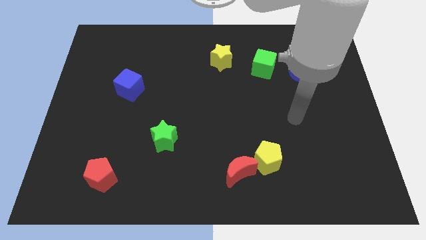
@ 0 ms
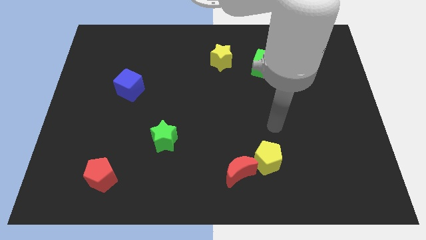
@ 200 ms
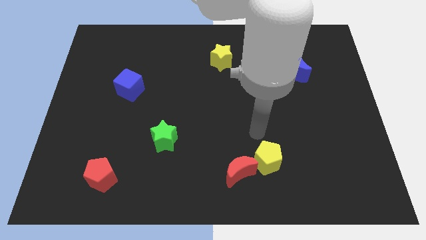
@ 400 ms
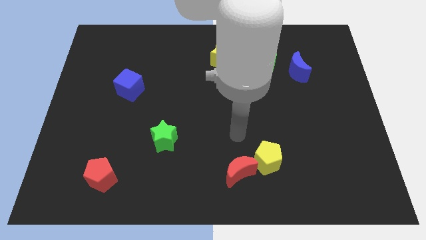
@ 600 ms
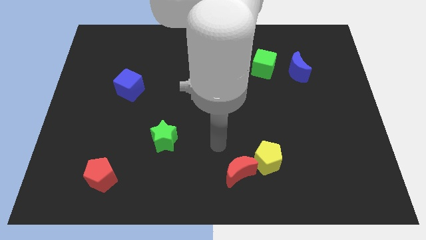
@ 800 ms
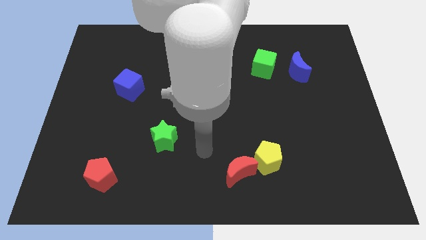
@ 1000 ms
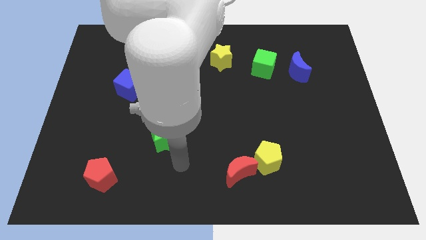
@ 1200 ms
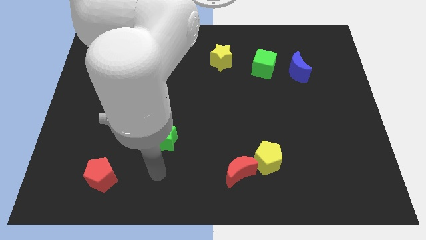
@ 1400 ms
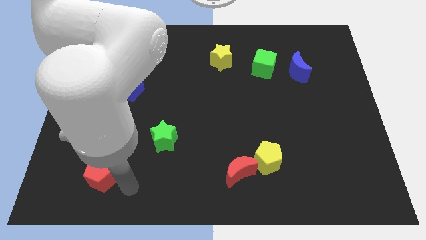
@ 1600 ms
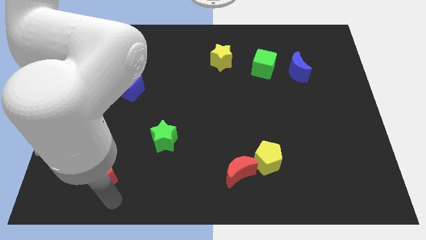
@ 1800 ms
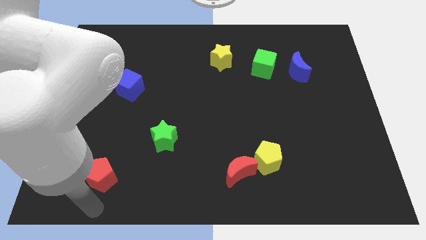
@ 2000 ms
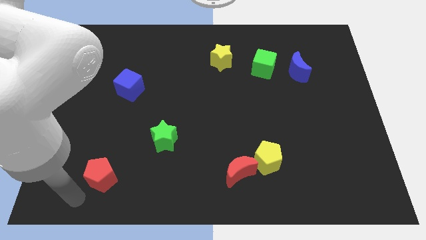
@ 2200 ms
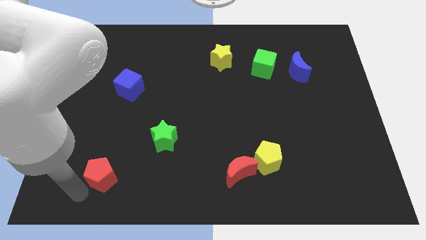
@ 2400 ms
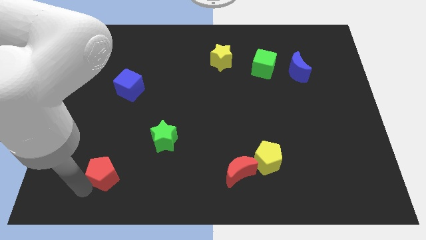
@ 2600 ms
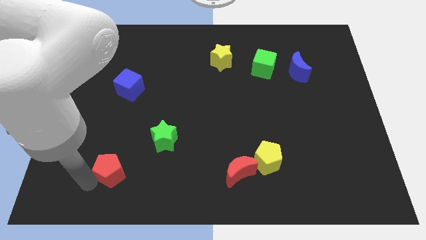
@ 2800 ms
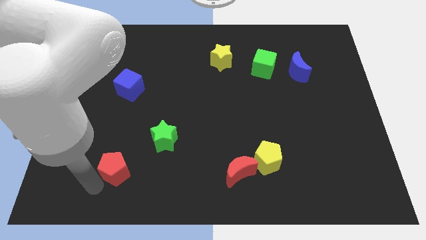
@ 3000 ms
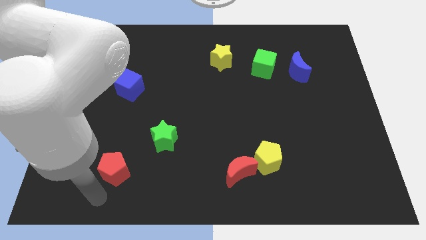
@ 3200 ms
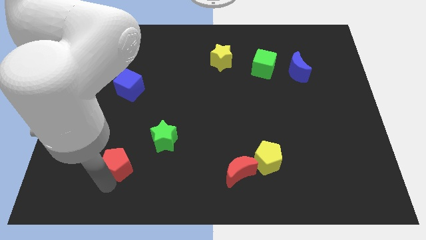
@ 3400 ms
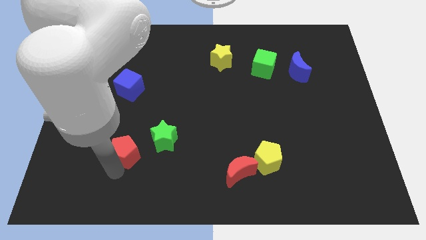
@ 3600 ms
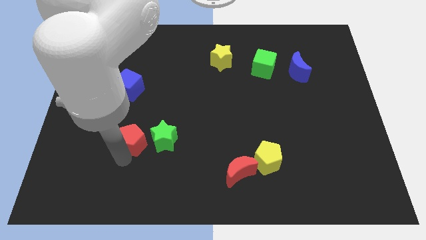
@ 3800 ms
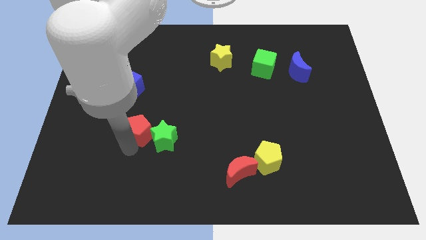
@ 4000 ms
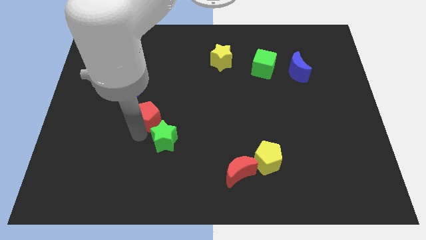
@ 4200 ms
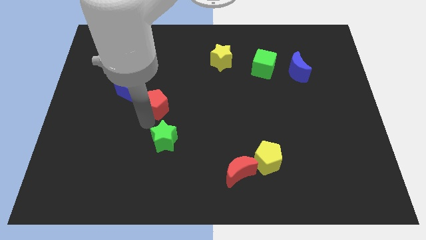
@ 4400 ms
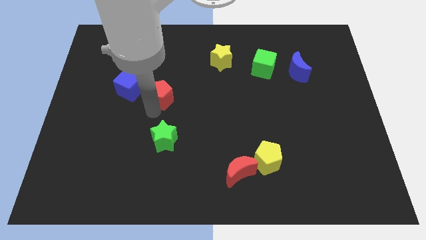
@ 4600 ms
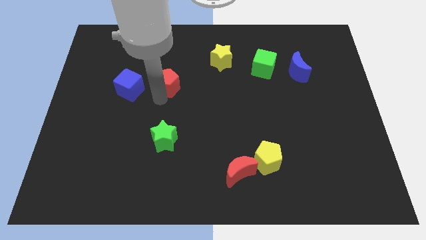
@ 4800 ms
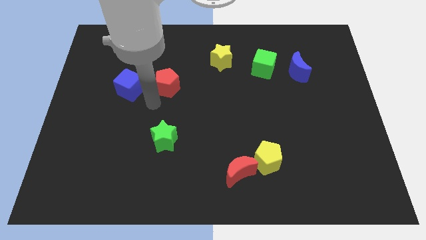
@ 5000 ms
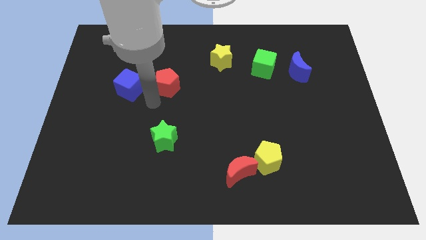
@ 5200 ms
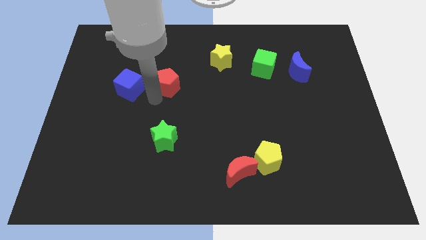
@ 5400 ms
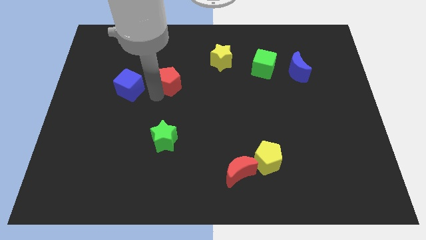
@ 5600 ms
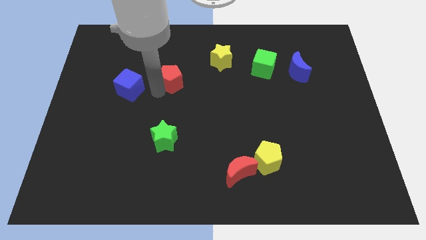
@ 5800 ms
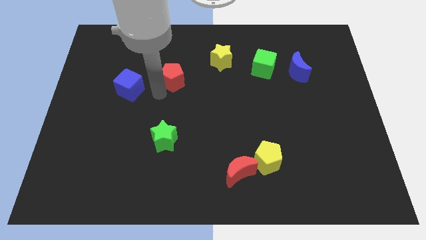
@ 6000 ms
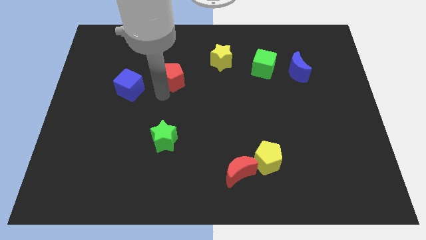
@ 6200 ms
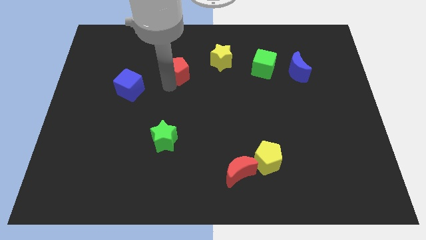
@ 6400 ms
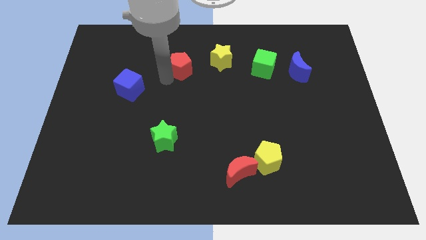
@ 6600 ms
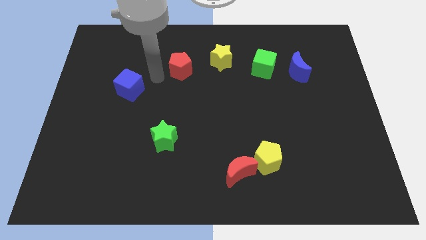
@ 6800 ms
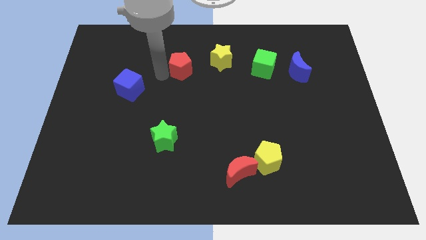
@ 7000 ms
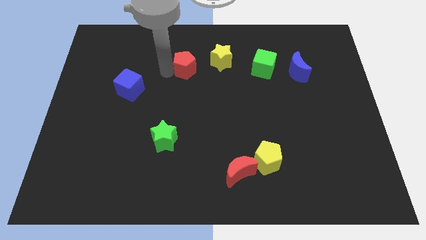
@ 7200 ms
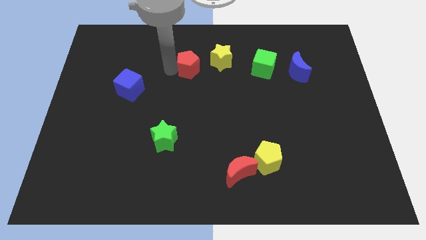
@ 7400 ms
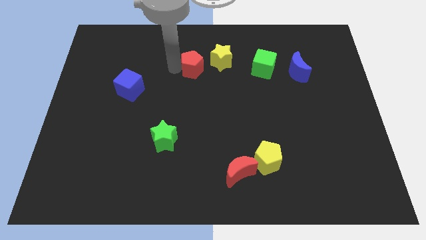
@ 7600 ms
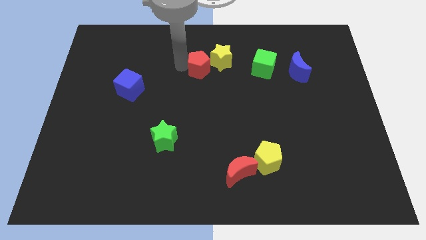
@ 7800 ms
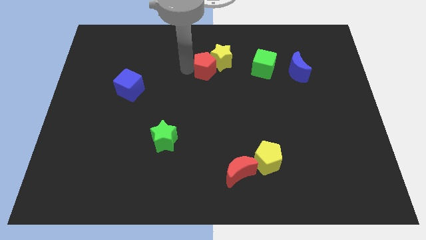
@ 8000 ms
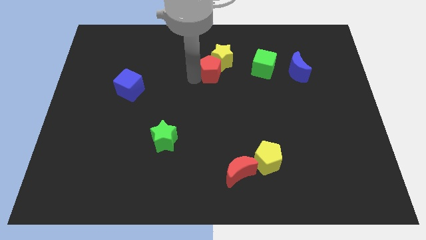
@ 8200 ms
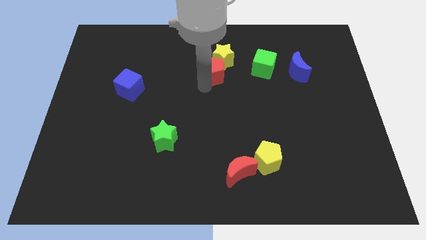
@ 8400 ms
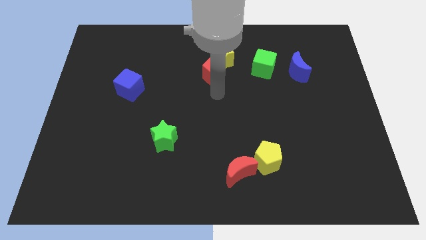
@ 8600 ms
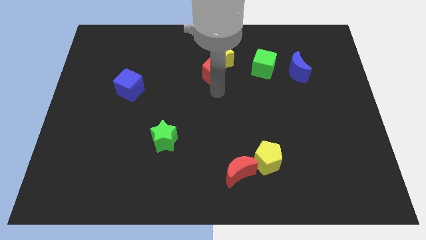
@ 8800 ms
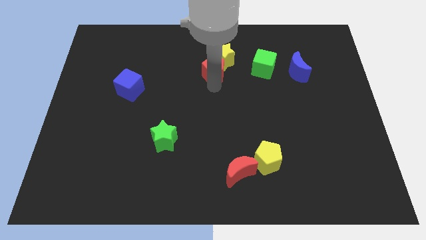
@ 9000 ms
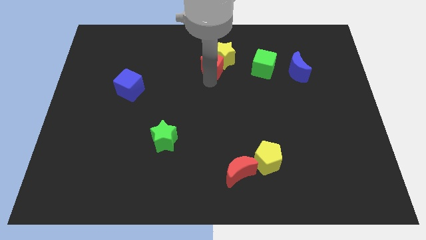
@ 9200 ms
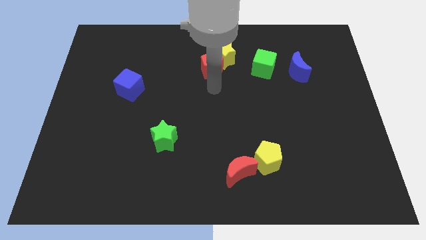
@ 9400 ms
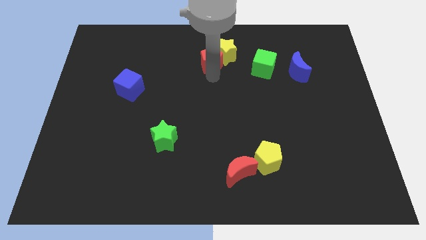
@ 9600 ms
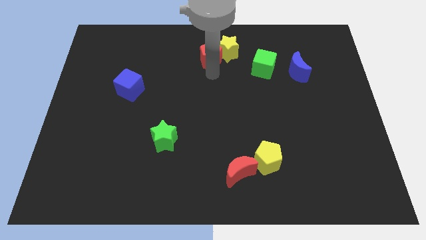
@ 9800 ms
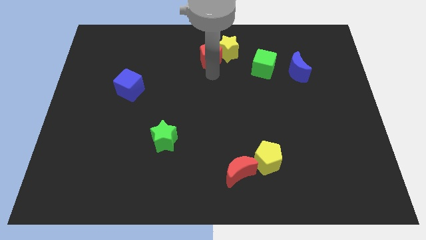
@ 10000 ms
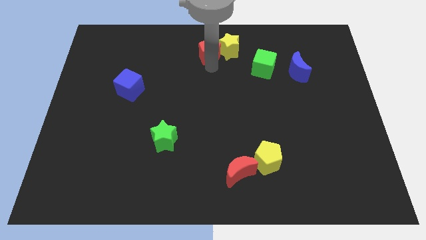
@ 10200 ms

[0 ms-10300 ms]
slide the red pentagon to the top

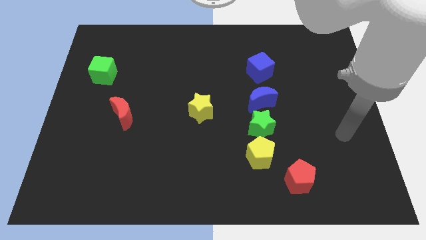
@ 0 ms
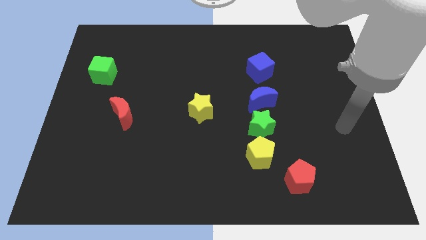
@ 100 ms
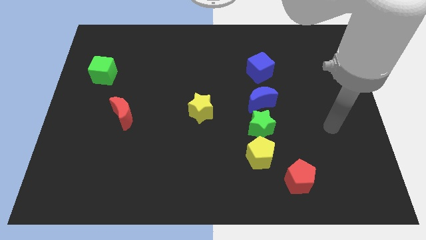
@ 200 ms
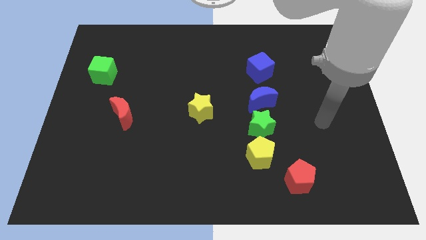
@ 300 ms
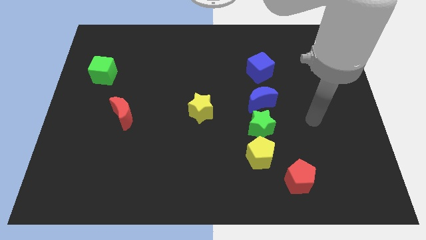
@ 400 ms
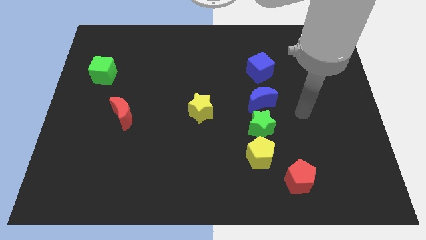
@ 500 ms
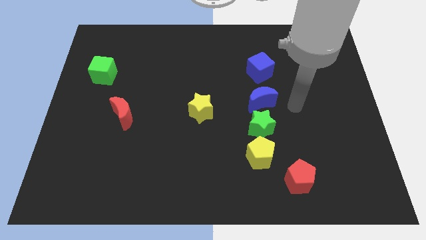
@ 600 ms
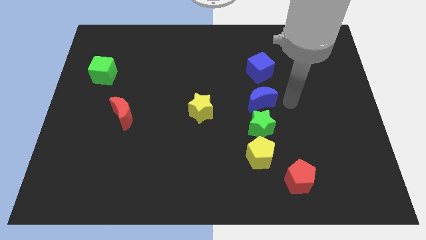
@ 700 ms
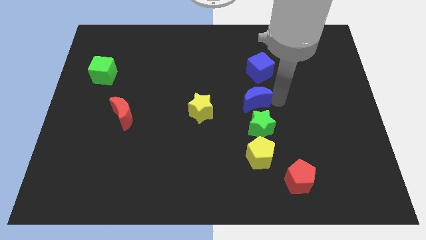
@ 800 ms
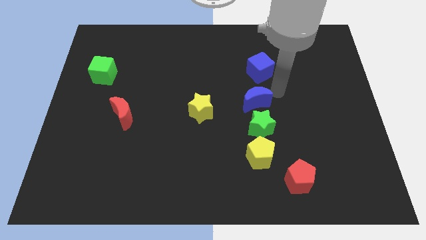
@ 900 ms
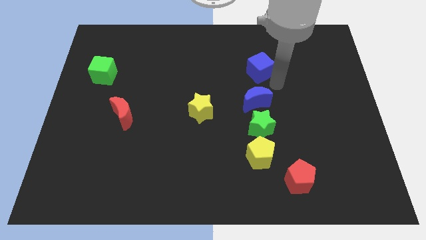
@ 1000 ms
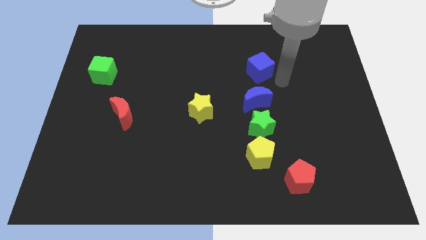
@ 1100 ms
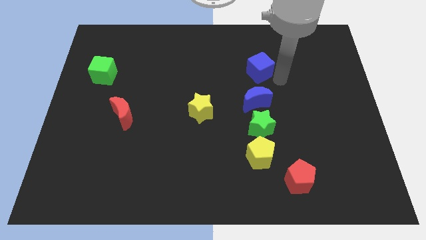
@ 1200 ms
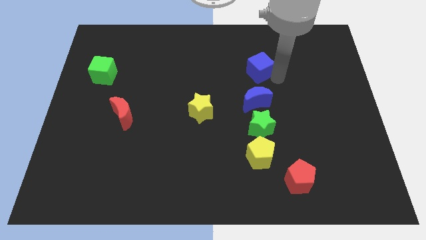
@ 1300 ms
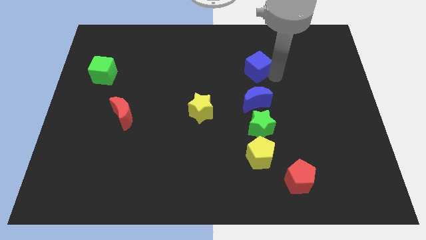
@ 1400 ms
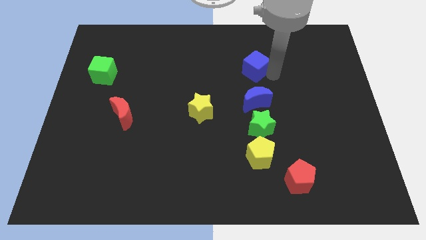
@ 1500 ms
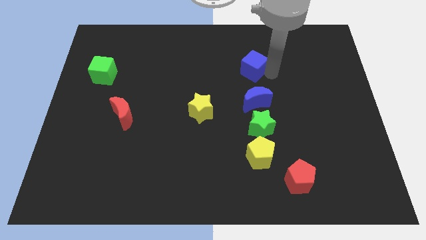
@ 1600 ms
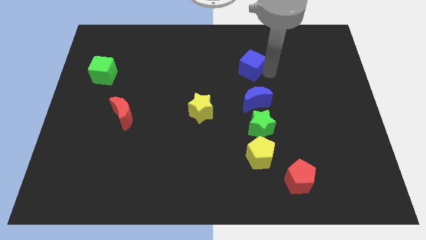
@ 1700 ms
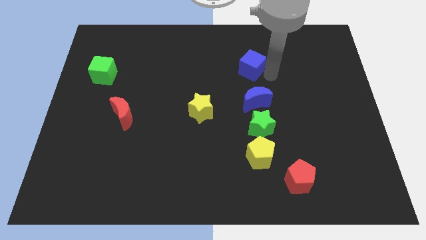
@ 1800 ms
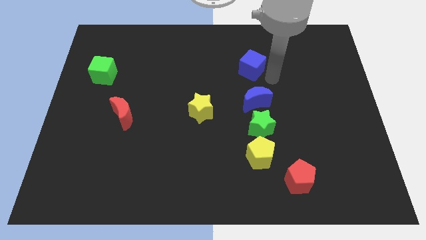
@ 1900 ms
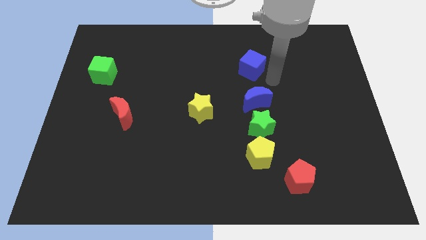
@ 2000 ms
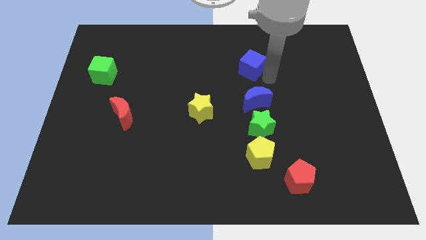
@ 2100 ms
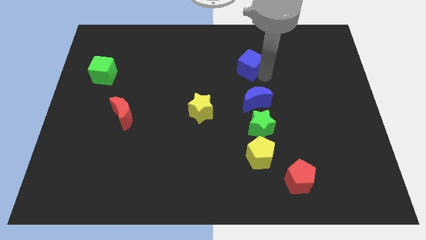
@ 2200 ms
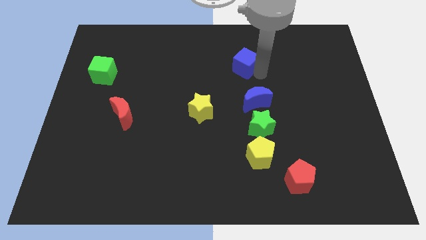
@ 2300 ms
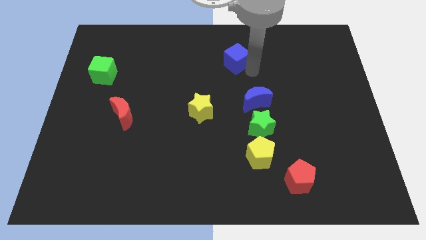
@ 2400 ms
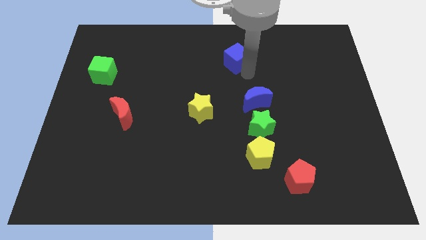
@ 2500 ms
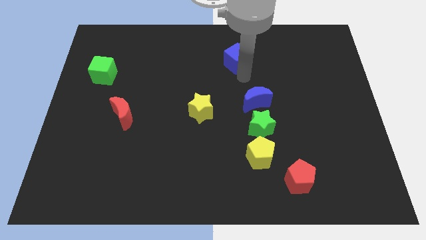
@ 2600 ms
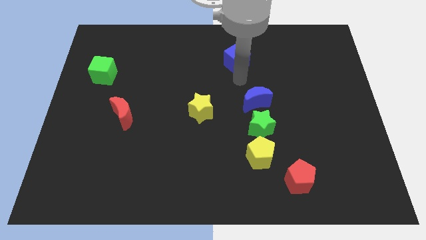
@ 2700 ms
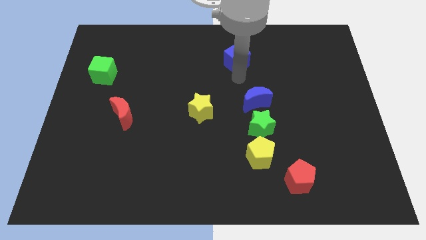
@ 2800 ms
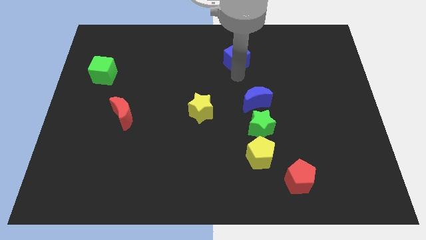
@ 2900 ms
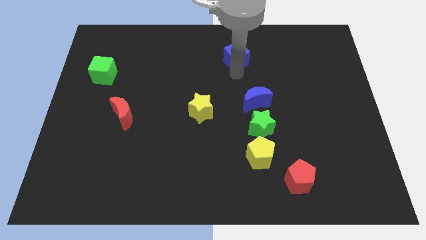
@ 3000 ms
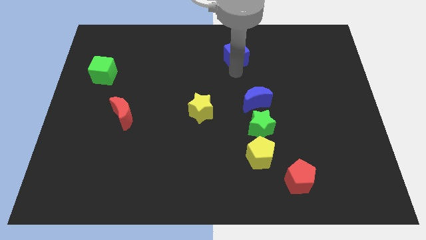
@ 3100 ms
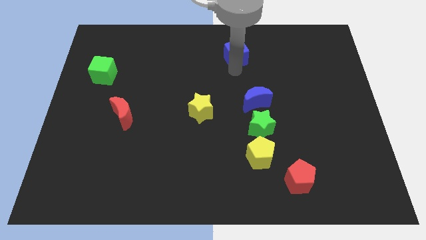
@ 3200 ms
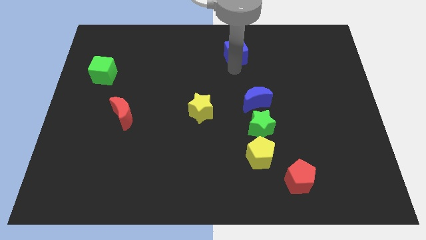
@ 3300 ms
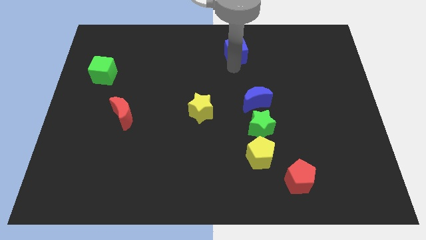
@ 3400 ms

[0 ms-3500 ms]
push the blue cube to the towards your base
